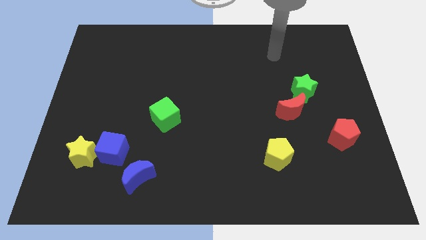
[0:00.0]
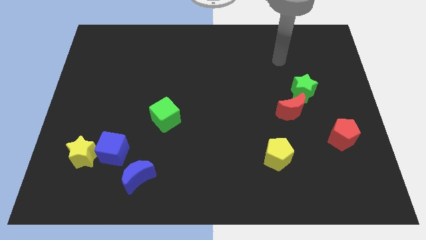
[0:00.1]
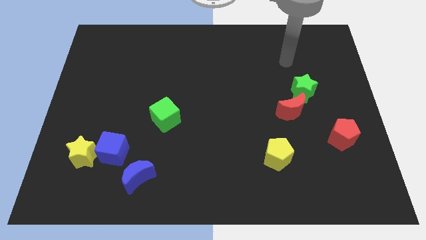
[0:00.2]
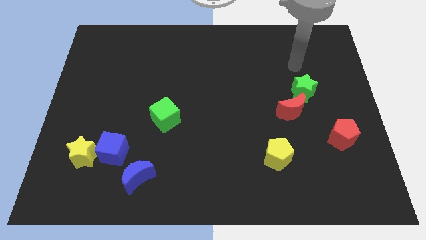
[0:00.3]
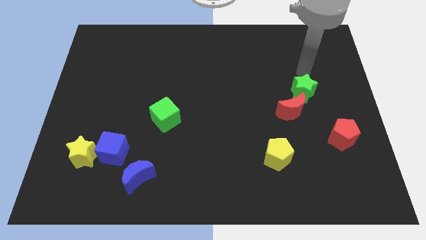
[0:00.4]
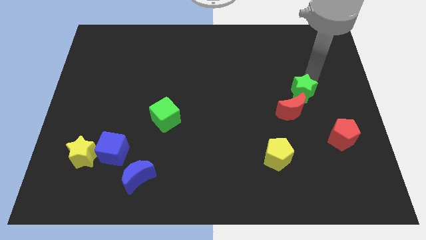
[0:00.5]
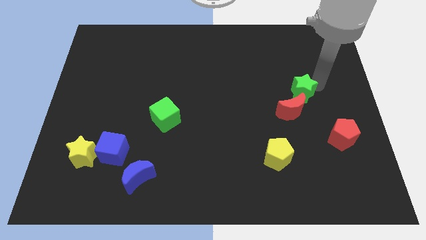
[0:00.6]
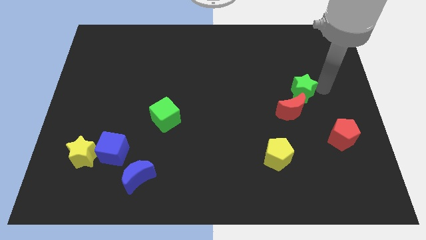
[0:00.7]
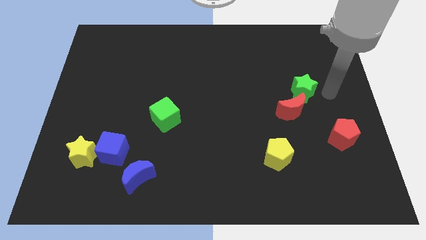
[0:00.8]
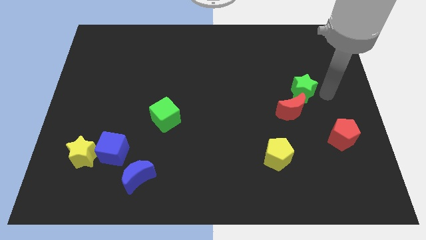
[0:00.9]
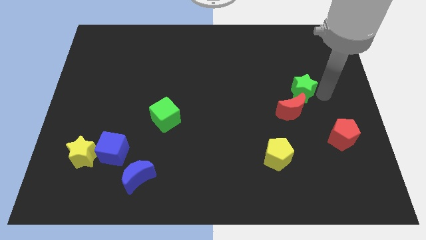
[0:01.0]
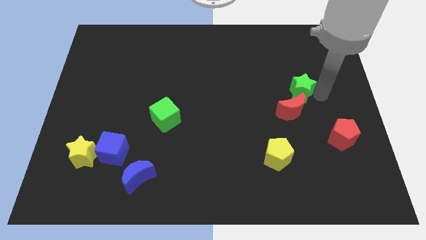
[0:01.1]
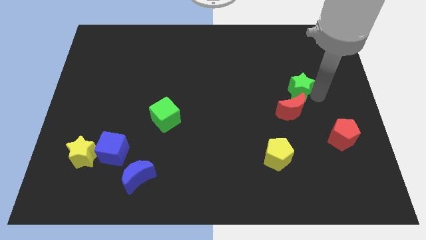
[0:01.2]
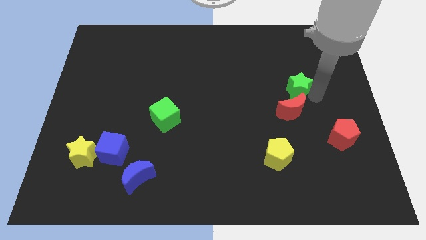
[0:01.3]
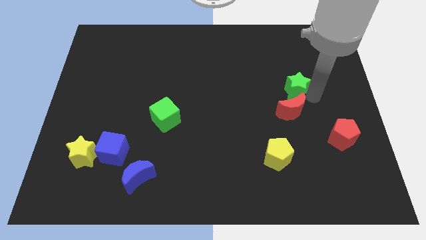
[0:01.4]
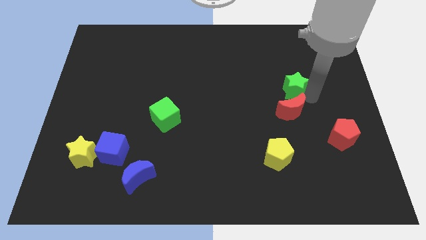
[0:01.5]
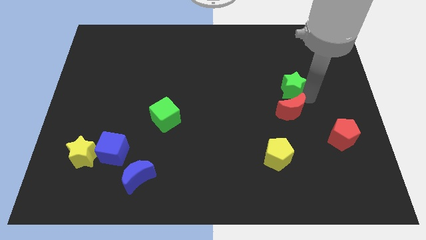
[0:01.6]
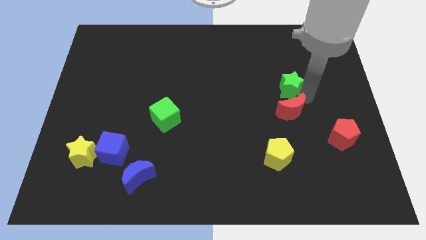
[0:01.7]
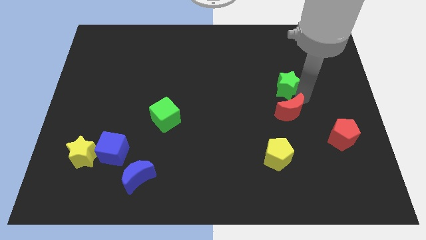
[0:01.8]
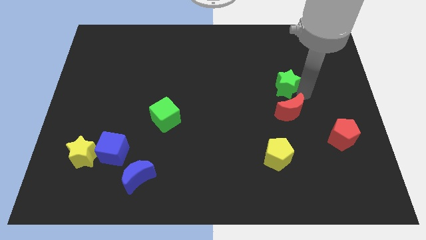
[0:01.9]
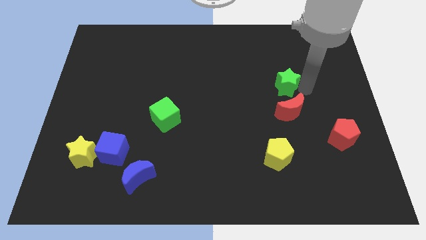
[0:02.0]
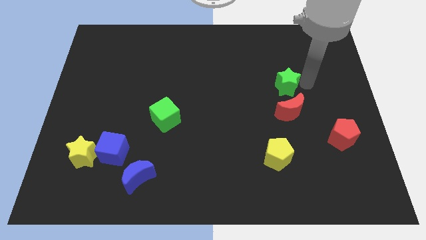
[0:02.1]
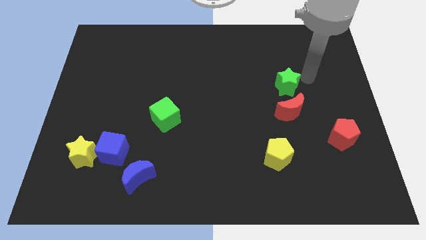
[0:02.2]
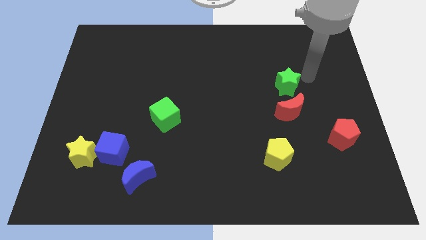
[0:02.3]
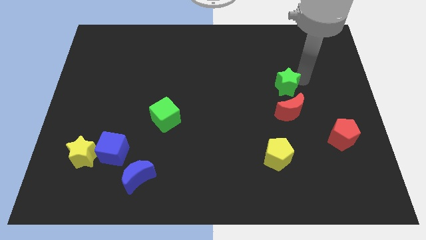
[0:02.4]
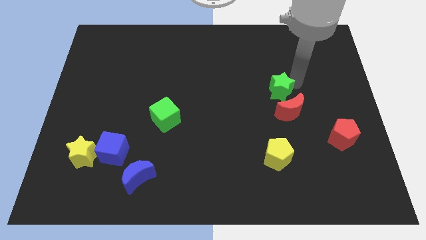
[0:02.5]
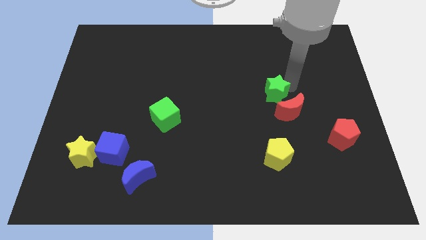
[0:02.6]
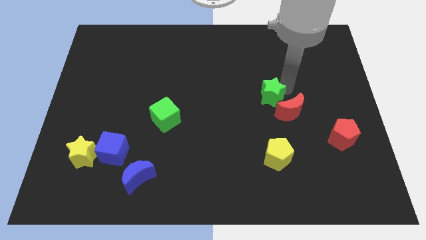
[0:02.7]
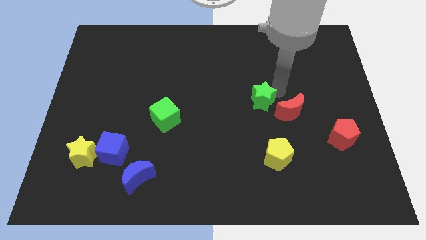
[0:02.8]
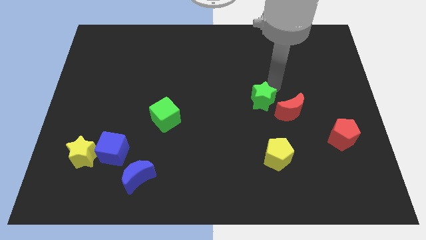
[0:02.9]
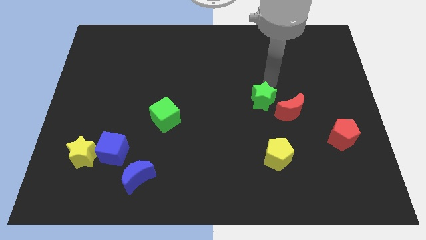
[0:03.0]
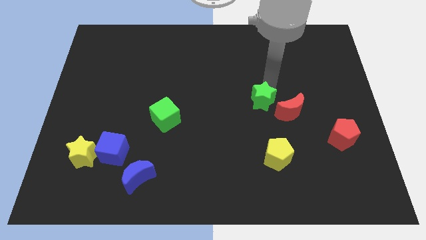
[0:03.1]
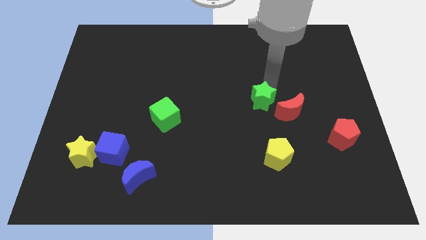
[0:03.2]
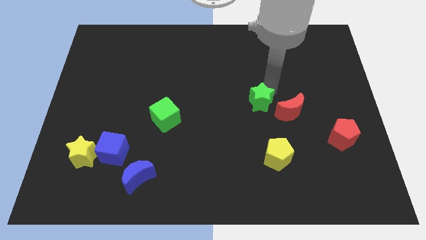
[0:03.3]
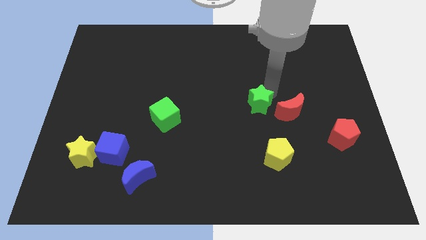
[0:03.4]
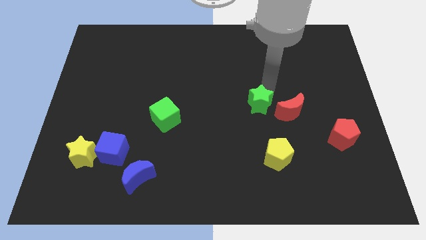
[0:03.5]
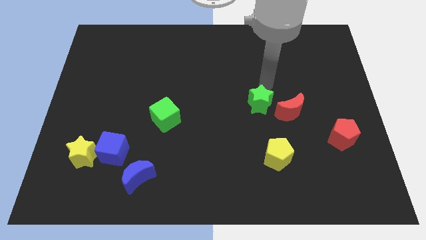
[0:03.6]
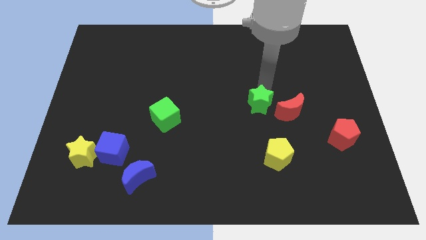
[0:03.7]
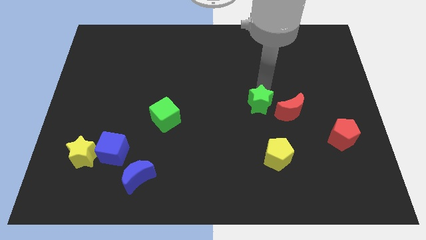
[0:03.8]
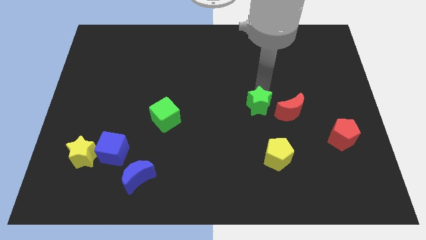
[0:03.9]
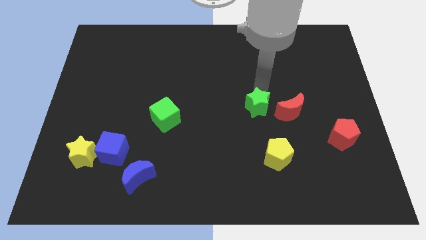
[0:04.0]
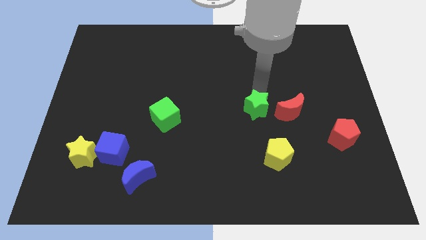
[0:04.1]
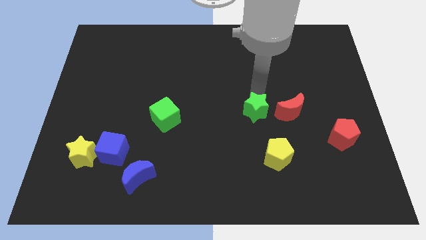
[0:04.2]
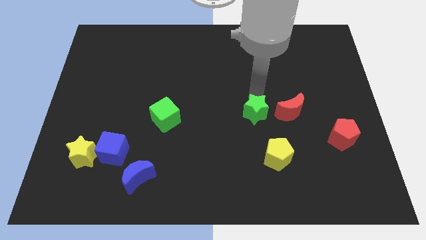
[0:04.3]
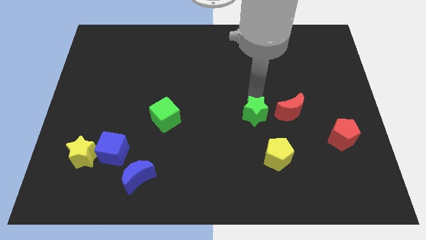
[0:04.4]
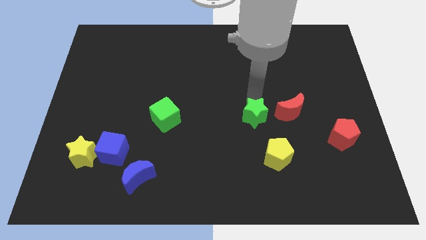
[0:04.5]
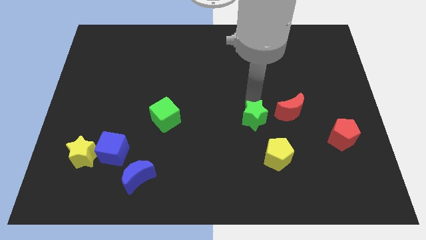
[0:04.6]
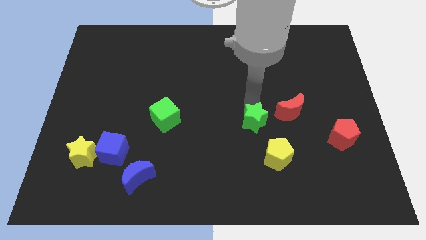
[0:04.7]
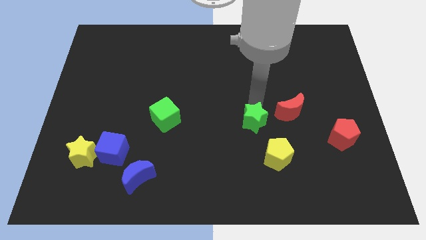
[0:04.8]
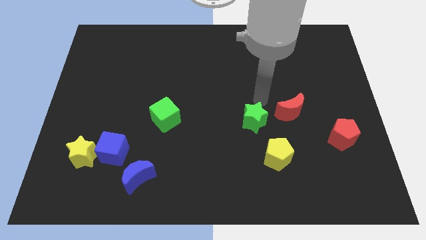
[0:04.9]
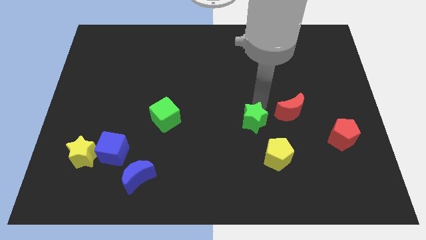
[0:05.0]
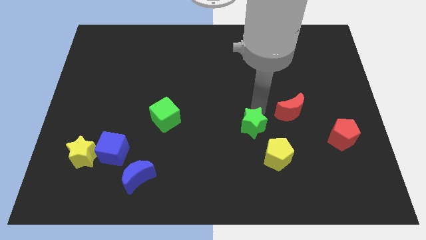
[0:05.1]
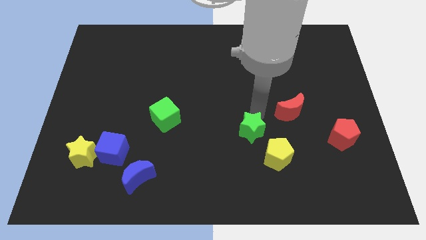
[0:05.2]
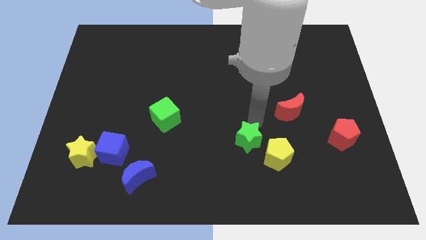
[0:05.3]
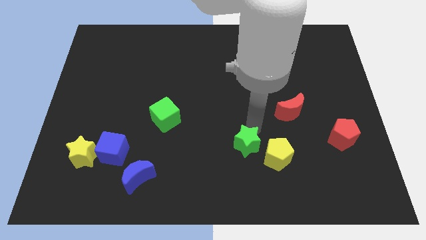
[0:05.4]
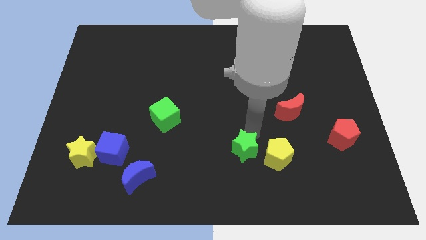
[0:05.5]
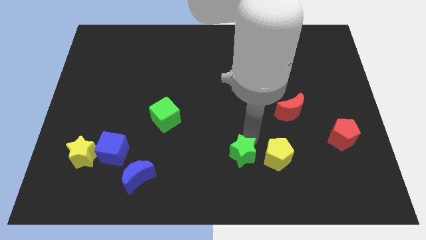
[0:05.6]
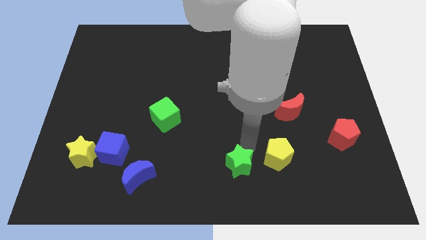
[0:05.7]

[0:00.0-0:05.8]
push the green star to the bottom side

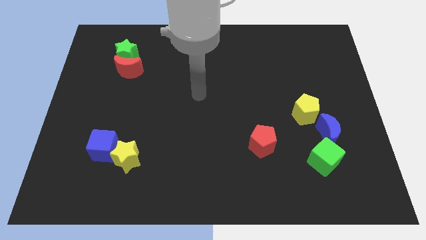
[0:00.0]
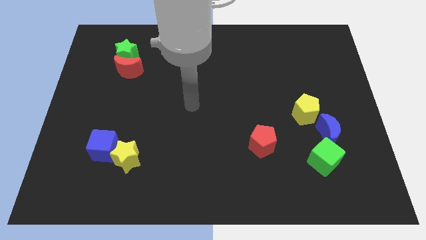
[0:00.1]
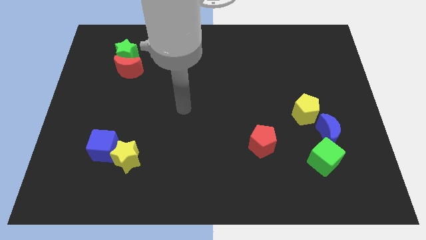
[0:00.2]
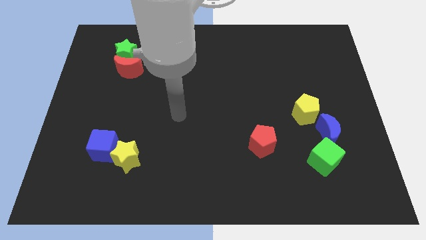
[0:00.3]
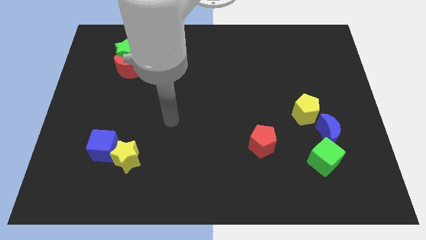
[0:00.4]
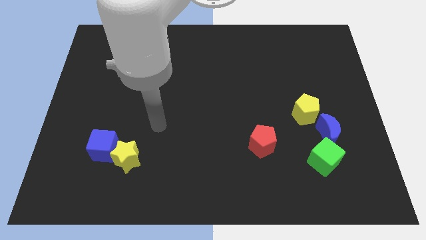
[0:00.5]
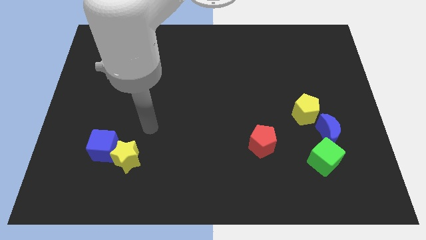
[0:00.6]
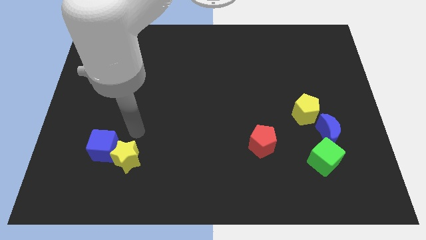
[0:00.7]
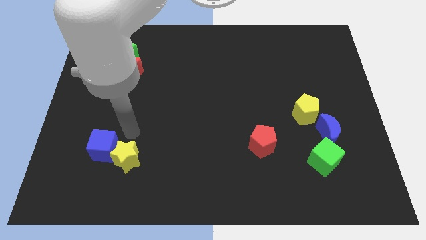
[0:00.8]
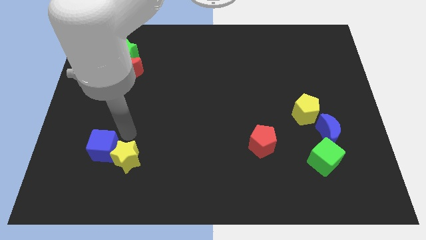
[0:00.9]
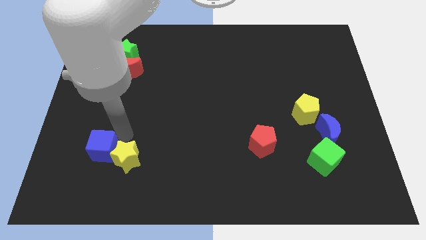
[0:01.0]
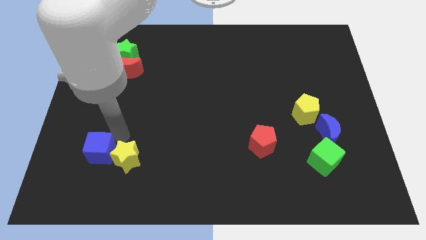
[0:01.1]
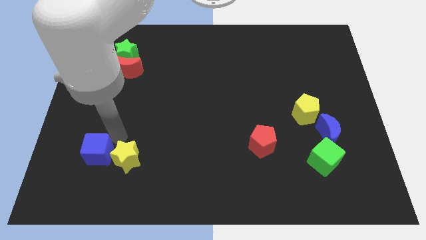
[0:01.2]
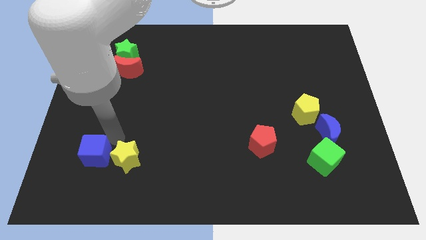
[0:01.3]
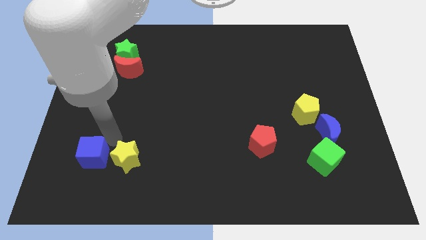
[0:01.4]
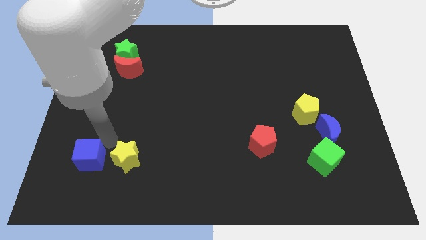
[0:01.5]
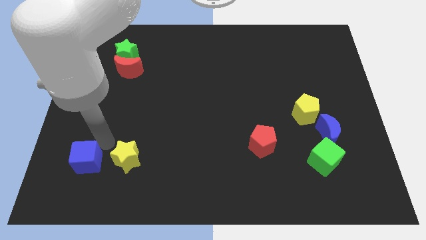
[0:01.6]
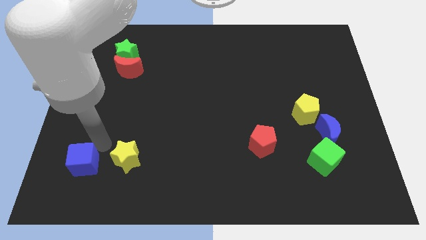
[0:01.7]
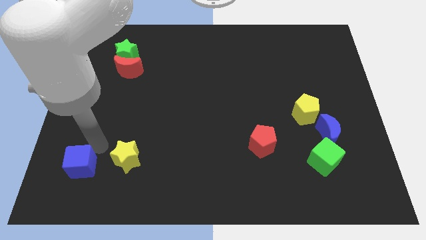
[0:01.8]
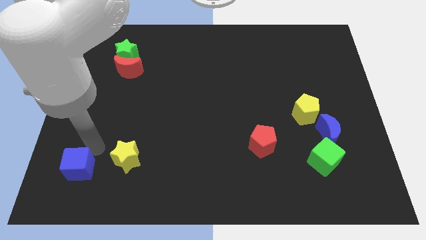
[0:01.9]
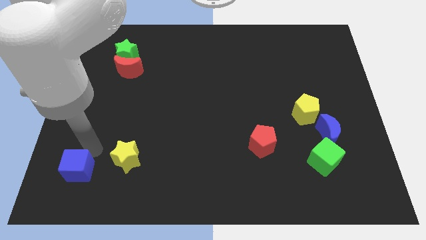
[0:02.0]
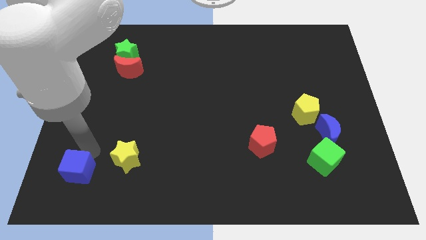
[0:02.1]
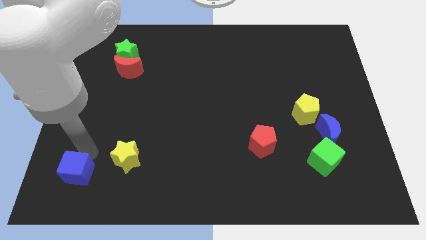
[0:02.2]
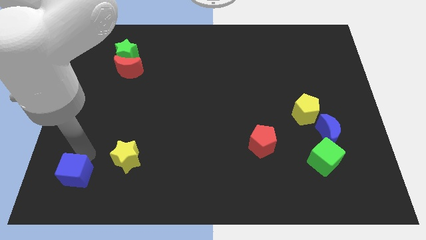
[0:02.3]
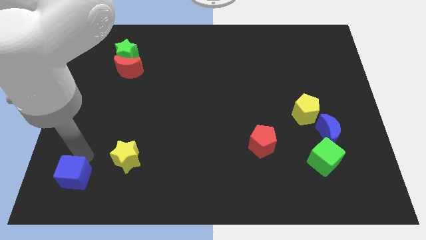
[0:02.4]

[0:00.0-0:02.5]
move the blue cube to the bottom left corner
